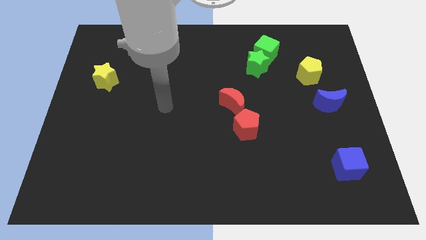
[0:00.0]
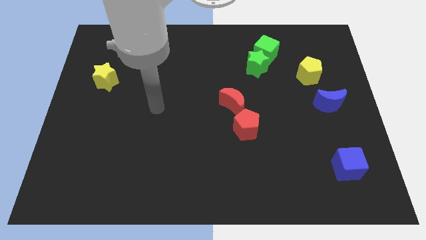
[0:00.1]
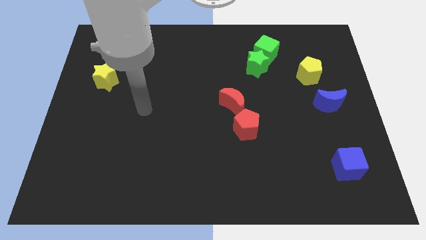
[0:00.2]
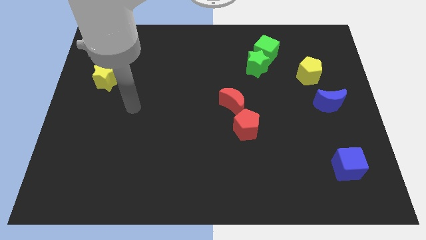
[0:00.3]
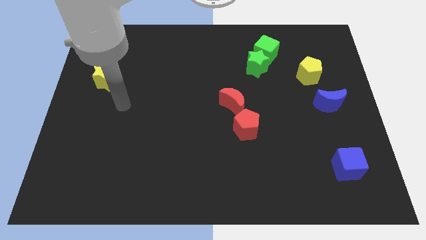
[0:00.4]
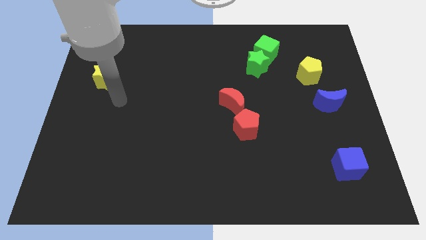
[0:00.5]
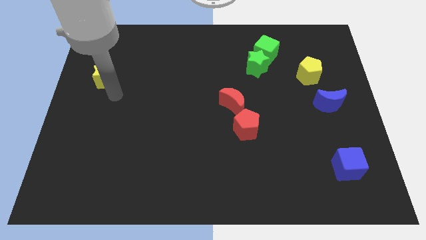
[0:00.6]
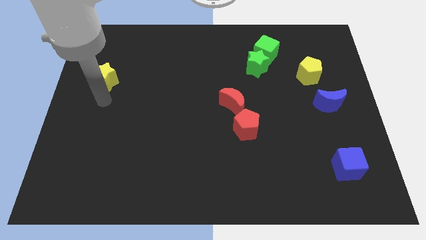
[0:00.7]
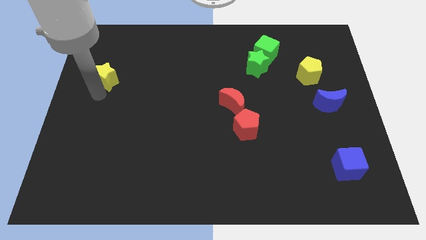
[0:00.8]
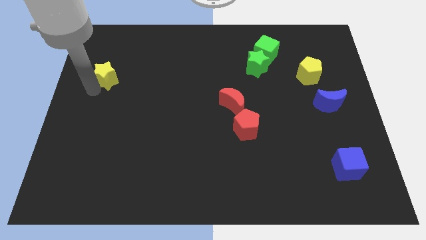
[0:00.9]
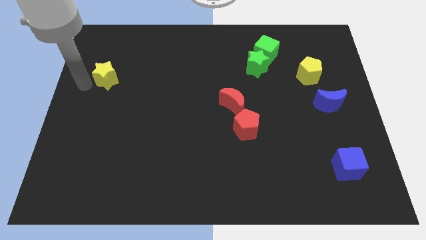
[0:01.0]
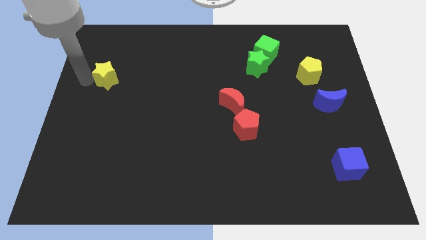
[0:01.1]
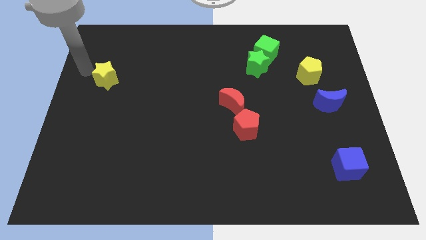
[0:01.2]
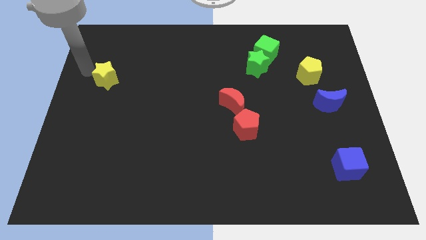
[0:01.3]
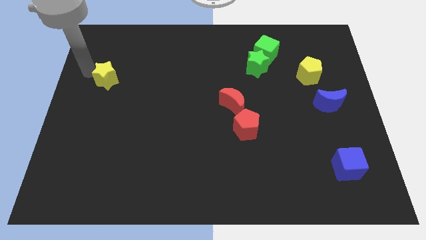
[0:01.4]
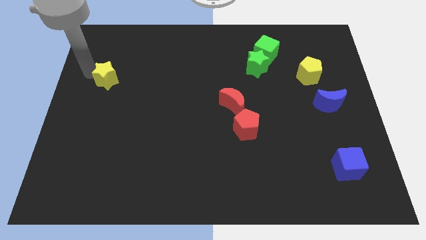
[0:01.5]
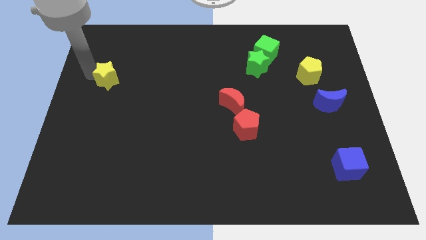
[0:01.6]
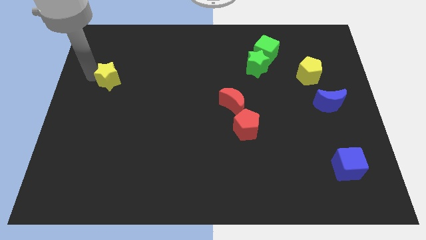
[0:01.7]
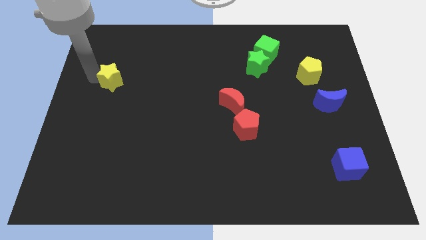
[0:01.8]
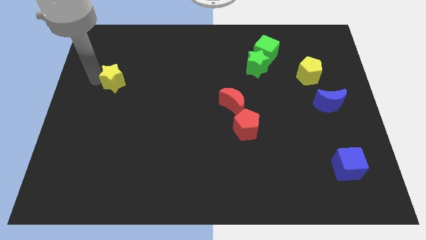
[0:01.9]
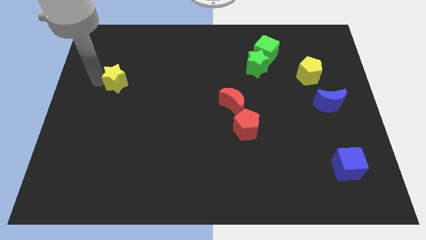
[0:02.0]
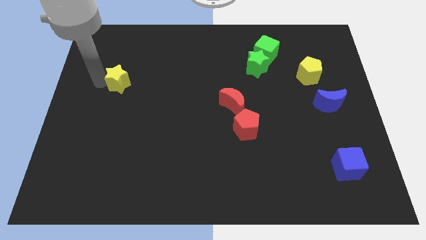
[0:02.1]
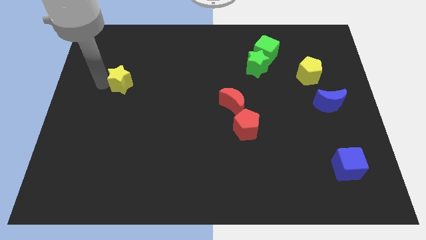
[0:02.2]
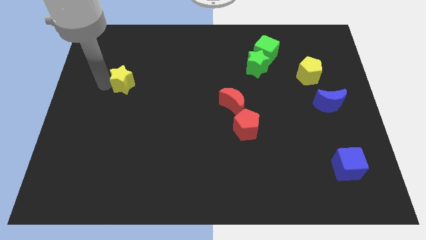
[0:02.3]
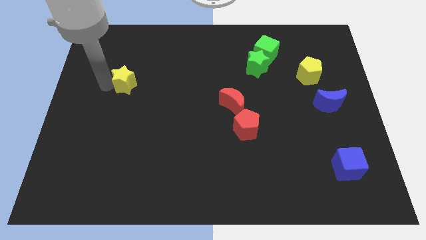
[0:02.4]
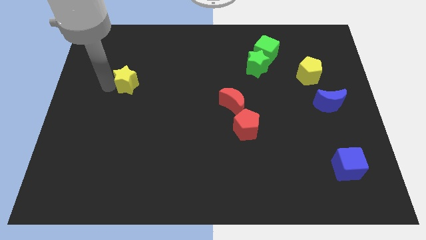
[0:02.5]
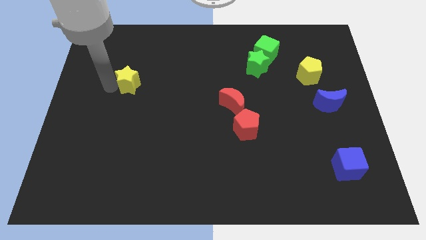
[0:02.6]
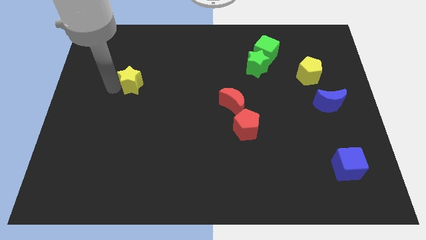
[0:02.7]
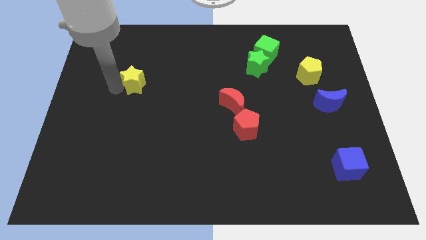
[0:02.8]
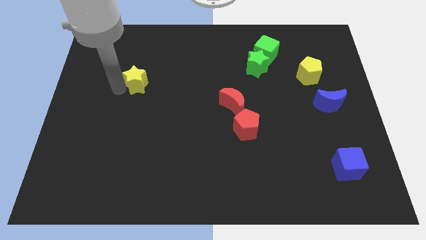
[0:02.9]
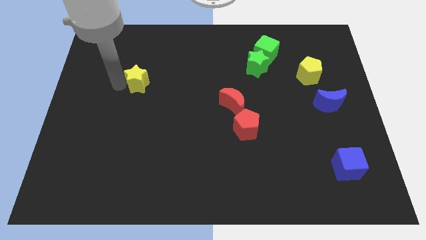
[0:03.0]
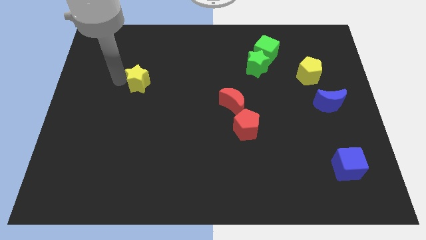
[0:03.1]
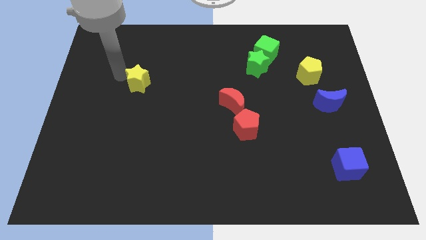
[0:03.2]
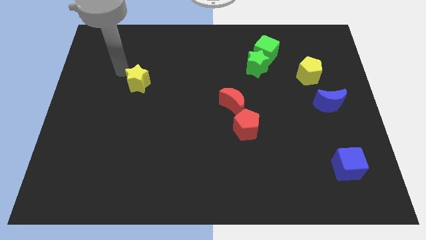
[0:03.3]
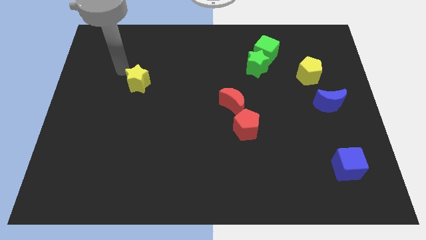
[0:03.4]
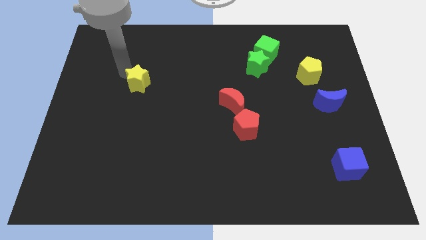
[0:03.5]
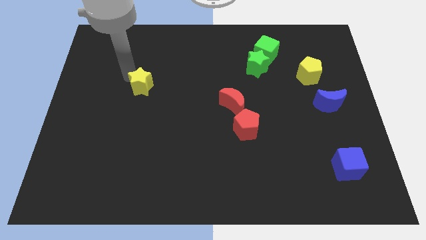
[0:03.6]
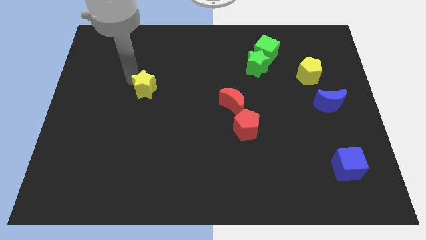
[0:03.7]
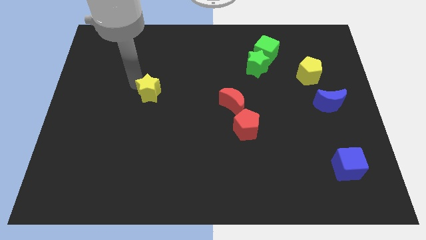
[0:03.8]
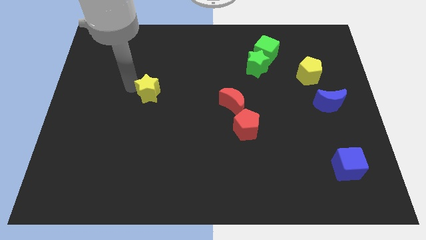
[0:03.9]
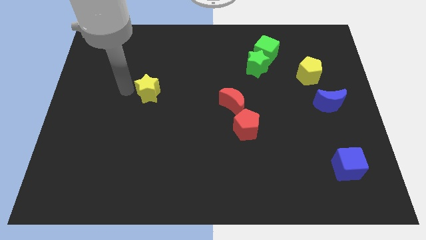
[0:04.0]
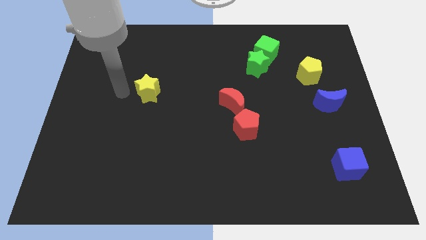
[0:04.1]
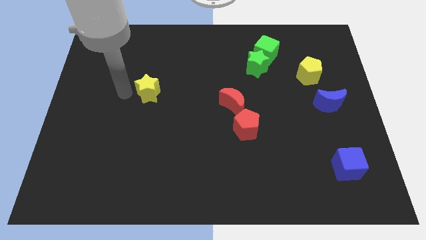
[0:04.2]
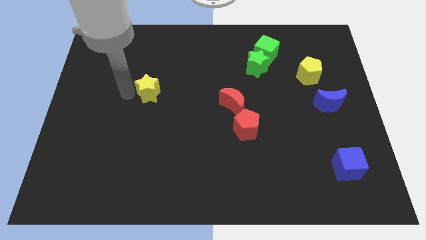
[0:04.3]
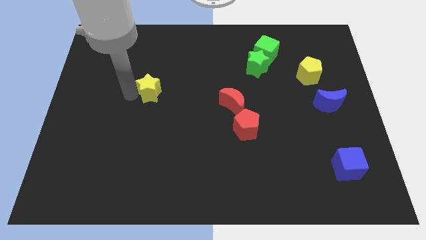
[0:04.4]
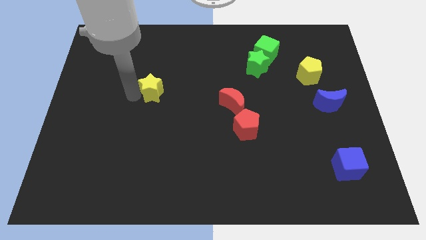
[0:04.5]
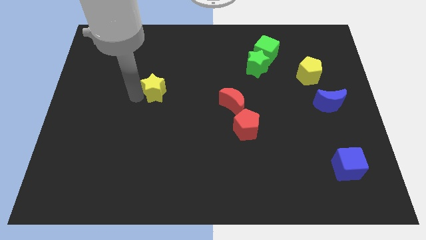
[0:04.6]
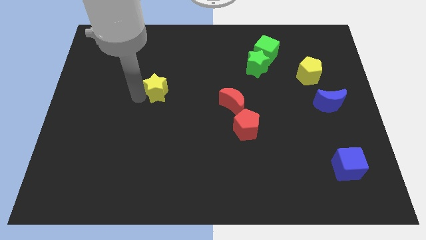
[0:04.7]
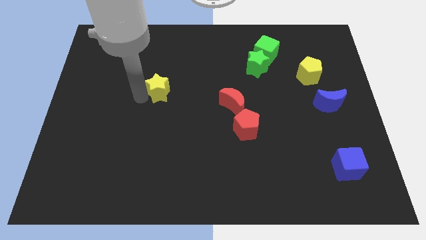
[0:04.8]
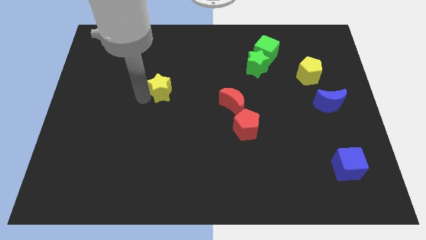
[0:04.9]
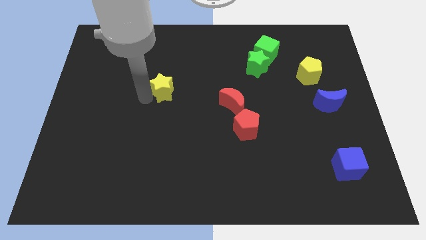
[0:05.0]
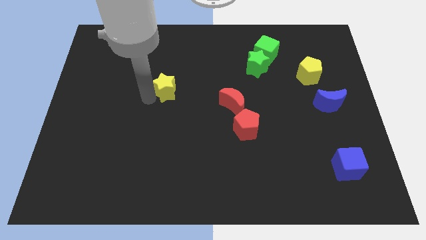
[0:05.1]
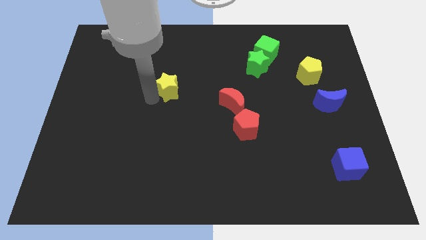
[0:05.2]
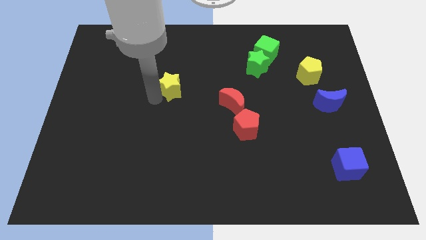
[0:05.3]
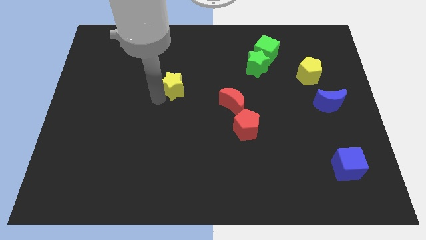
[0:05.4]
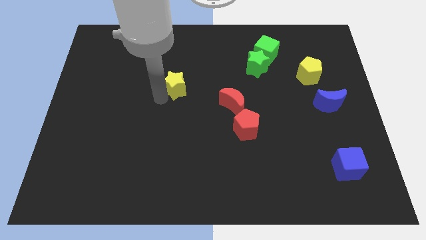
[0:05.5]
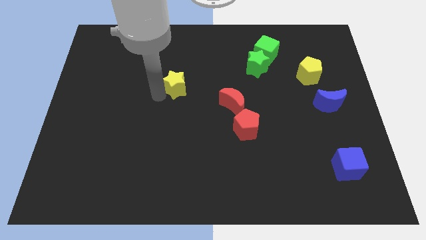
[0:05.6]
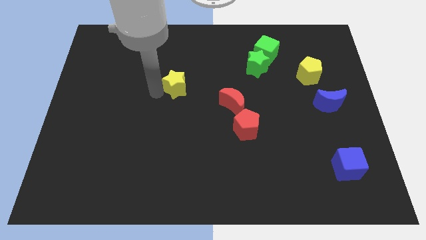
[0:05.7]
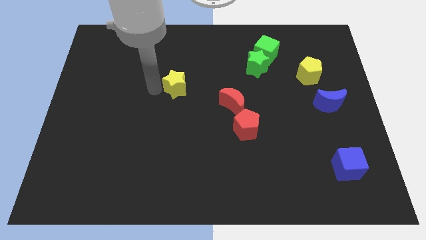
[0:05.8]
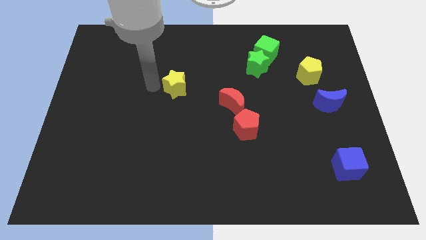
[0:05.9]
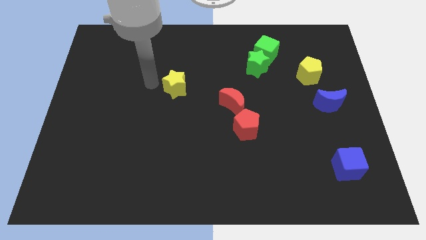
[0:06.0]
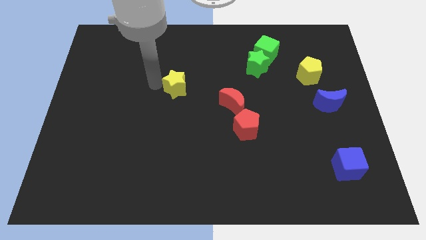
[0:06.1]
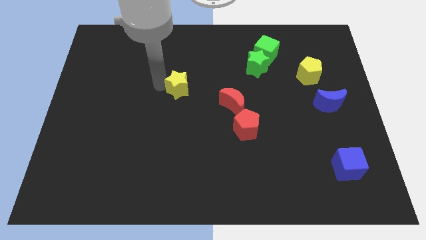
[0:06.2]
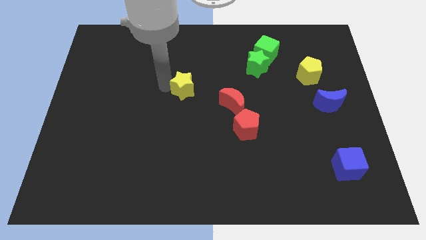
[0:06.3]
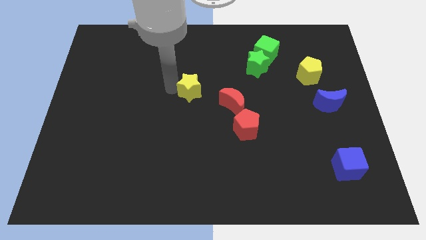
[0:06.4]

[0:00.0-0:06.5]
push the yellow star right

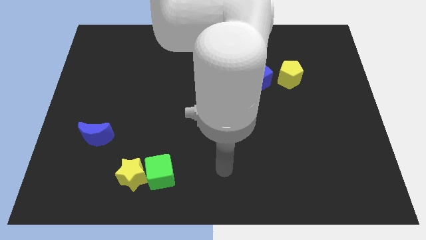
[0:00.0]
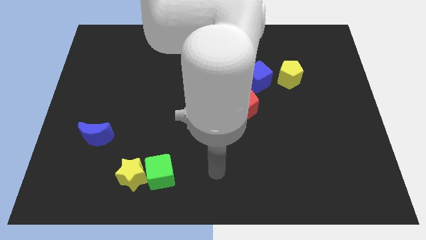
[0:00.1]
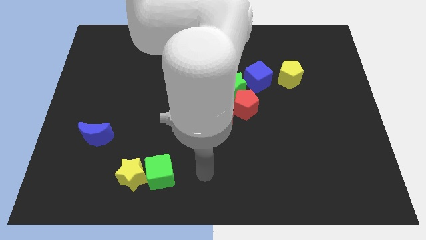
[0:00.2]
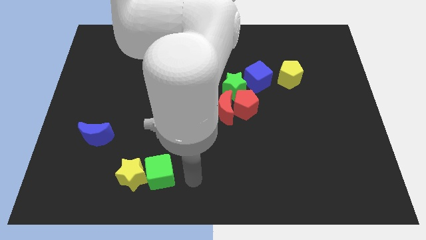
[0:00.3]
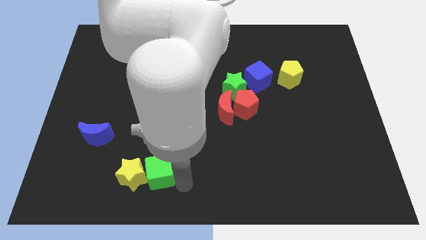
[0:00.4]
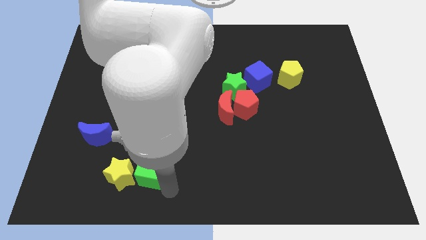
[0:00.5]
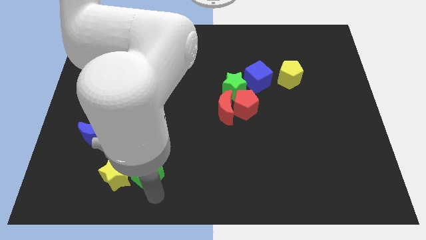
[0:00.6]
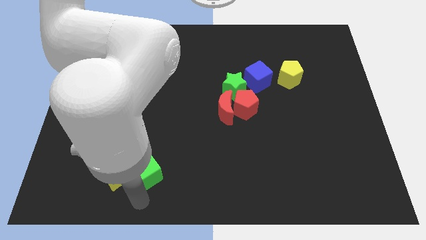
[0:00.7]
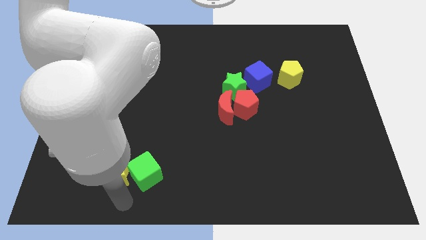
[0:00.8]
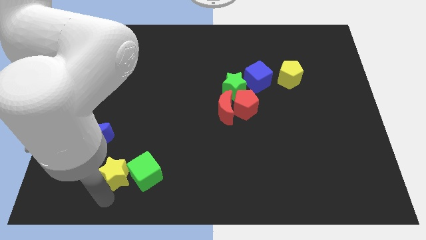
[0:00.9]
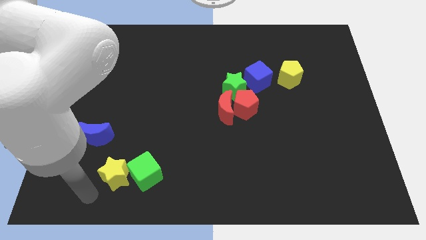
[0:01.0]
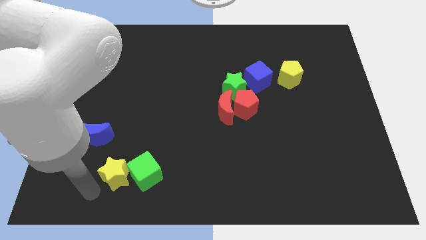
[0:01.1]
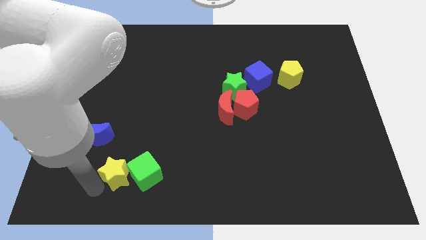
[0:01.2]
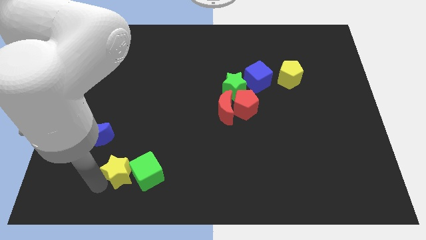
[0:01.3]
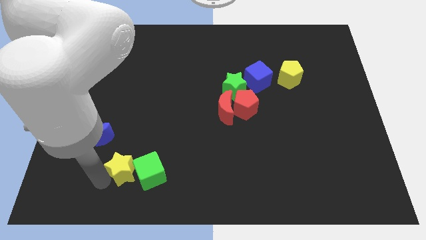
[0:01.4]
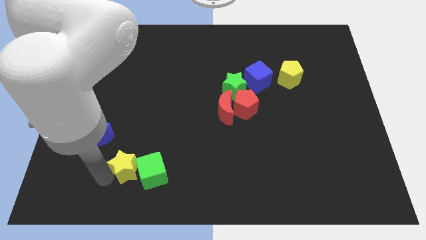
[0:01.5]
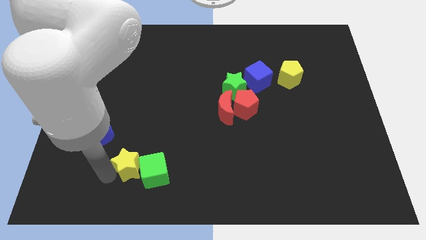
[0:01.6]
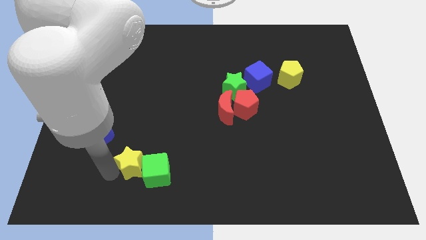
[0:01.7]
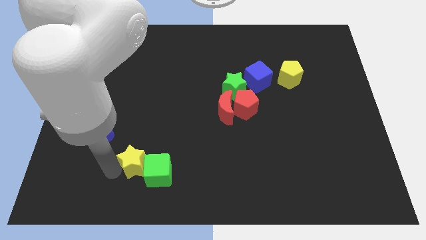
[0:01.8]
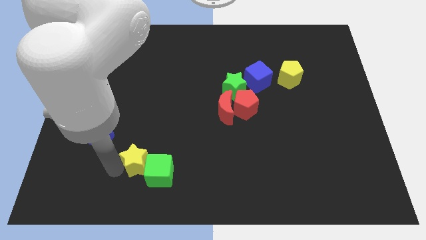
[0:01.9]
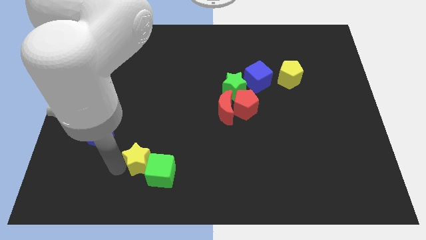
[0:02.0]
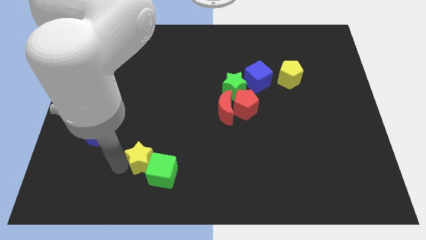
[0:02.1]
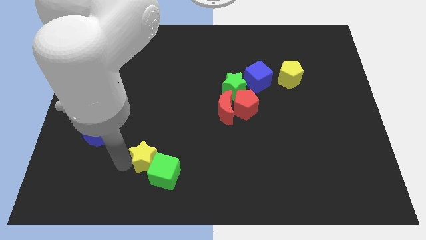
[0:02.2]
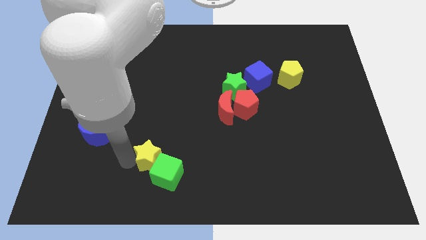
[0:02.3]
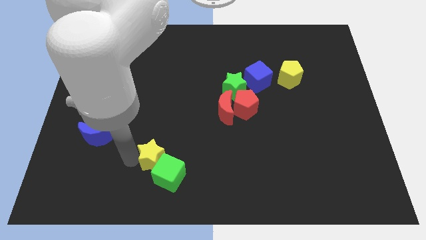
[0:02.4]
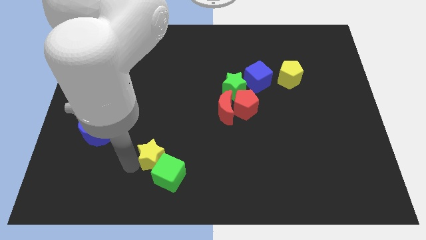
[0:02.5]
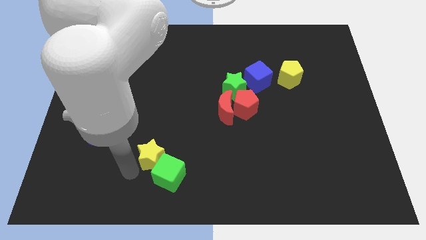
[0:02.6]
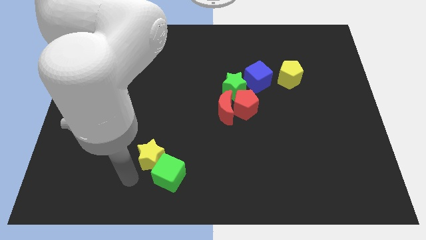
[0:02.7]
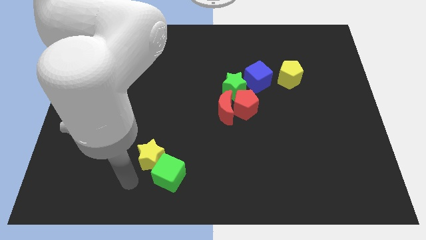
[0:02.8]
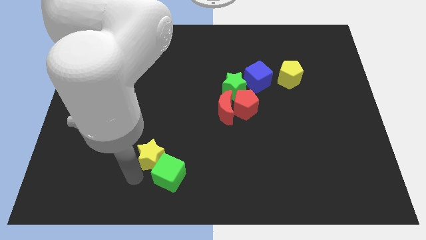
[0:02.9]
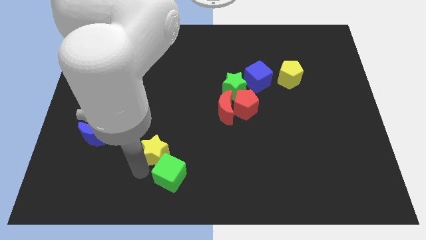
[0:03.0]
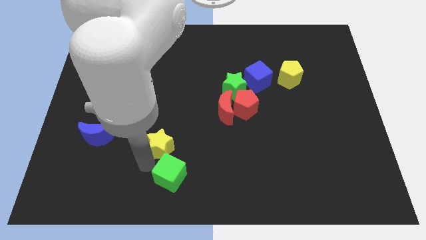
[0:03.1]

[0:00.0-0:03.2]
push the yellow star upwards and to the right diagonally somewhat
